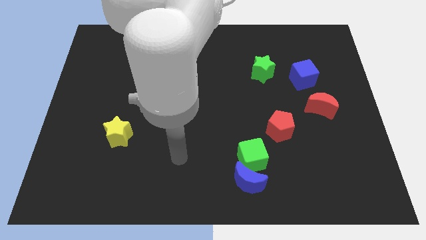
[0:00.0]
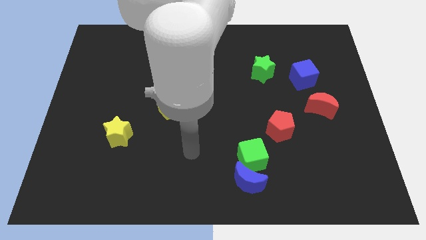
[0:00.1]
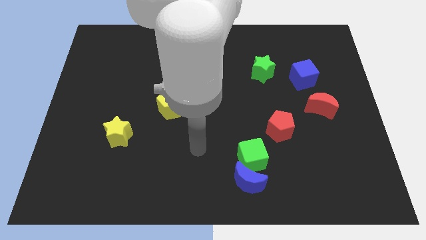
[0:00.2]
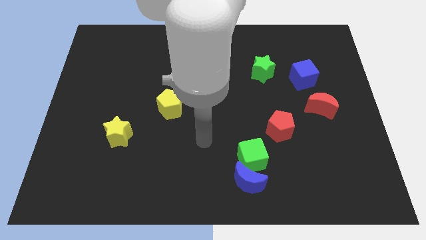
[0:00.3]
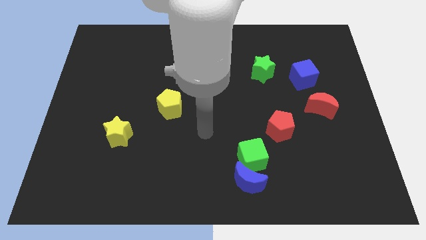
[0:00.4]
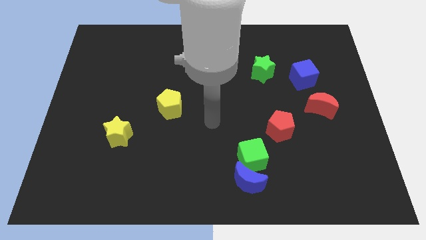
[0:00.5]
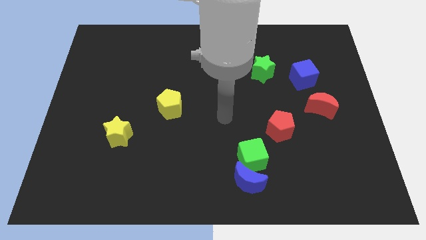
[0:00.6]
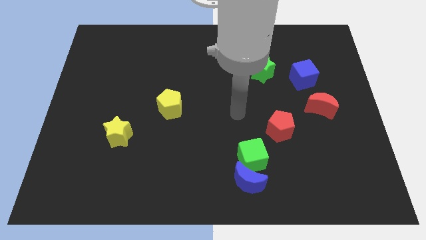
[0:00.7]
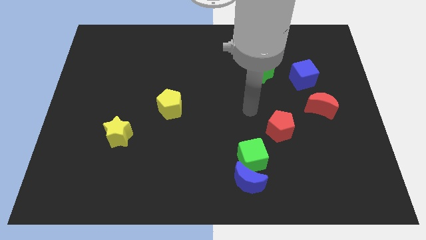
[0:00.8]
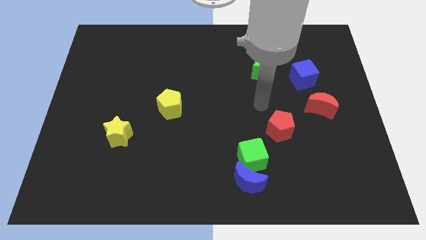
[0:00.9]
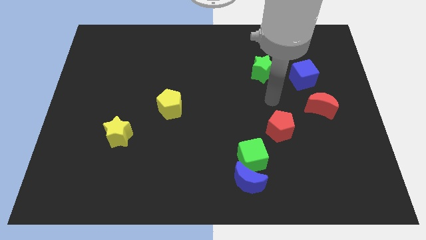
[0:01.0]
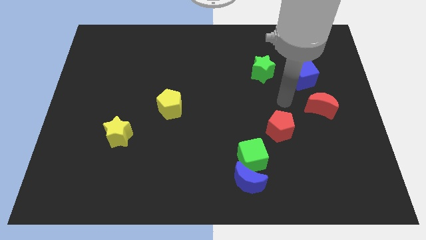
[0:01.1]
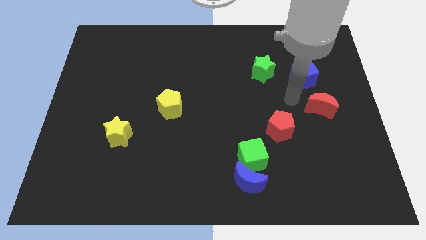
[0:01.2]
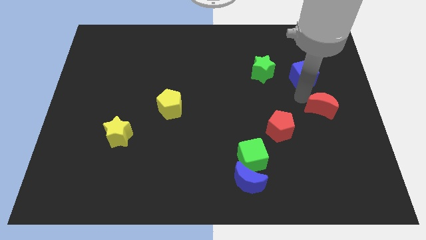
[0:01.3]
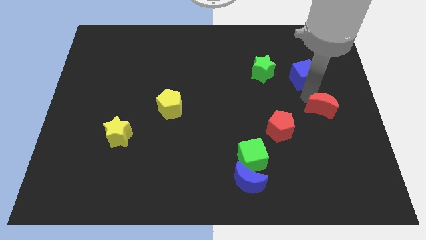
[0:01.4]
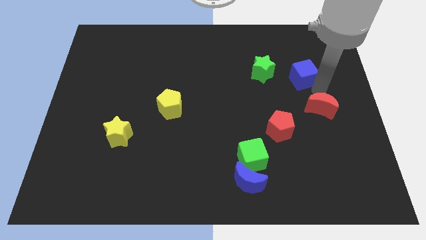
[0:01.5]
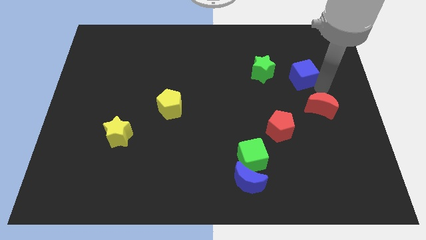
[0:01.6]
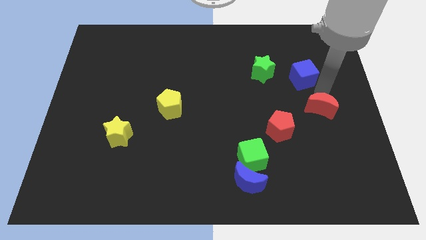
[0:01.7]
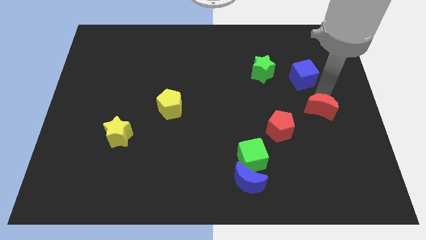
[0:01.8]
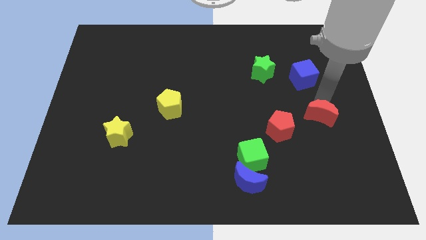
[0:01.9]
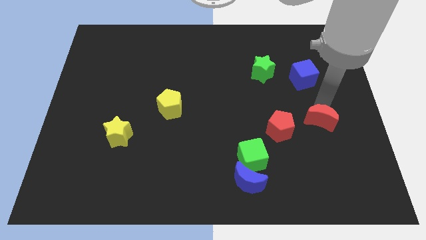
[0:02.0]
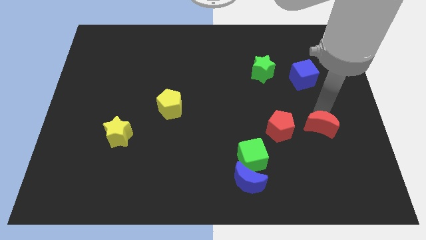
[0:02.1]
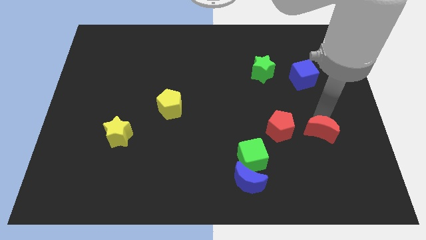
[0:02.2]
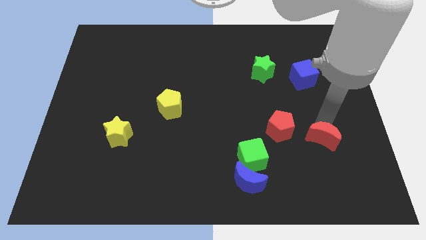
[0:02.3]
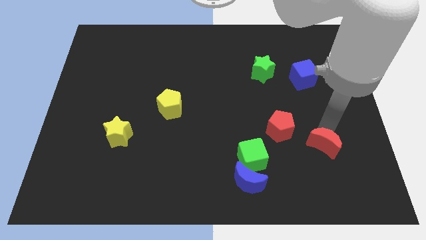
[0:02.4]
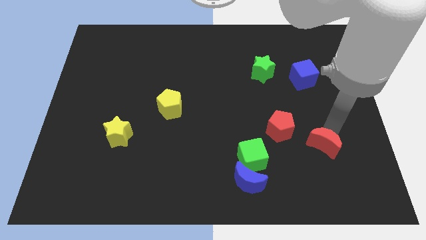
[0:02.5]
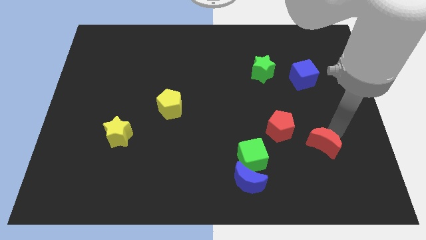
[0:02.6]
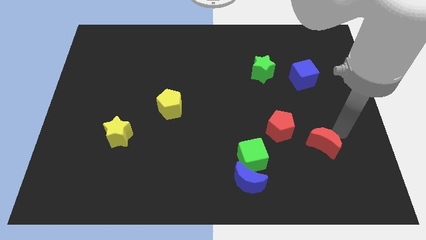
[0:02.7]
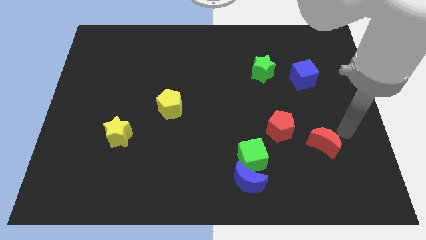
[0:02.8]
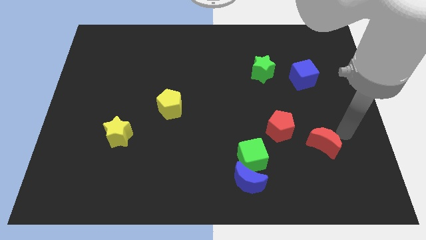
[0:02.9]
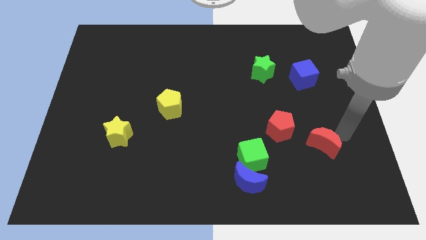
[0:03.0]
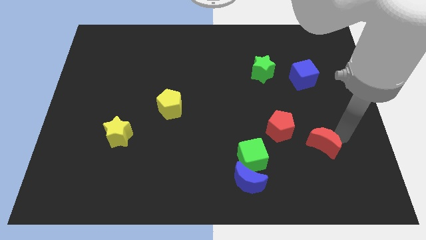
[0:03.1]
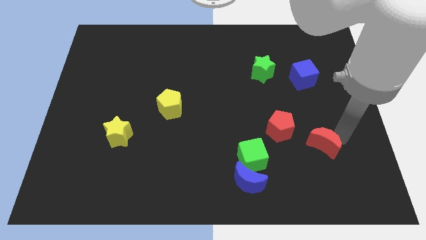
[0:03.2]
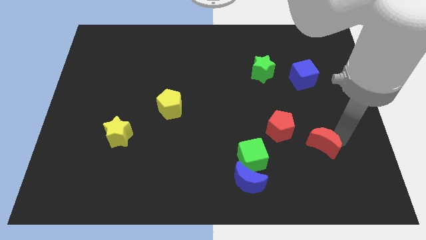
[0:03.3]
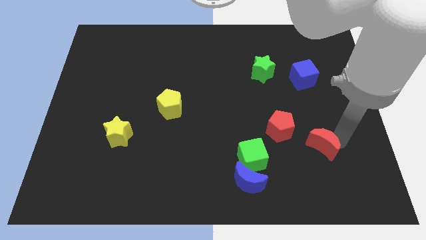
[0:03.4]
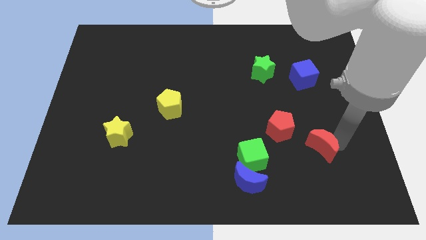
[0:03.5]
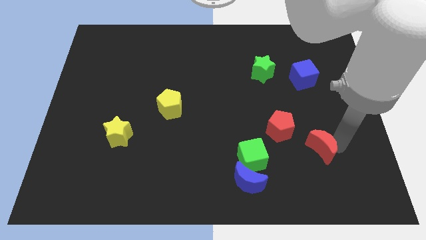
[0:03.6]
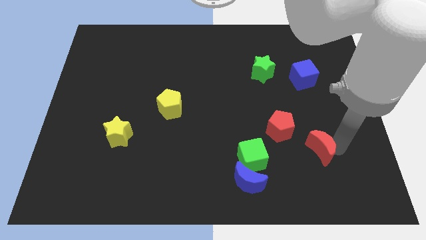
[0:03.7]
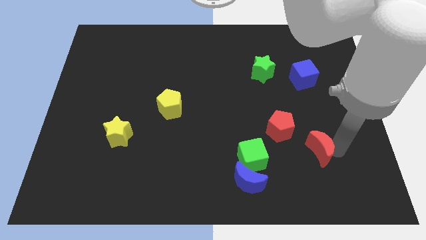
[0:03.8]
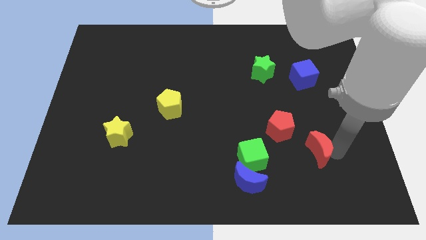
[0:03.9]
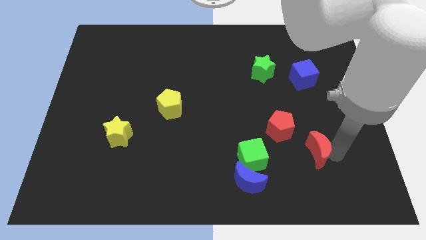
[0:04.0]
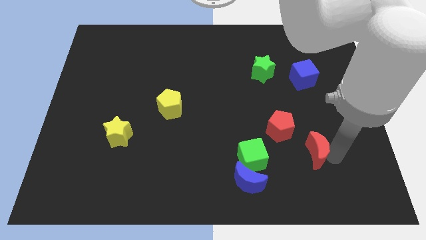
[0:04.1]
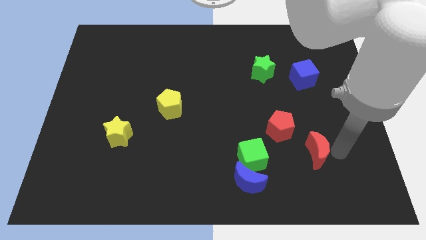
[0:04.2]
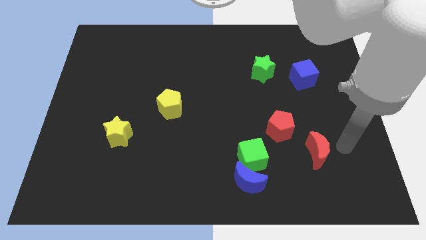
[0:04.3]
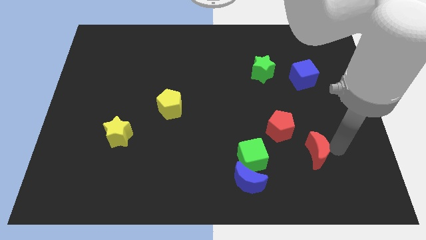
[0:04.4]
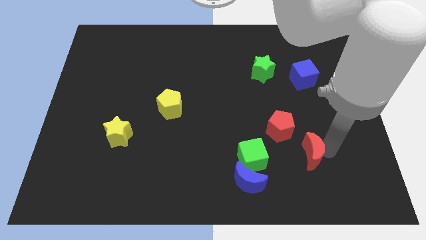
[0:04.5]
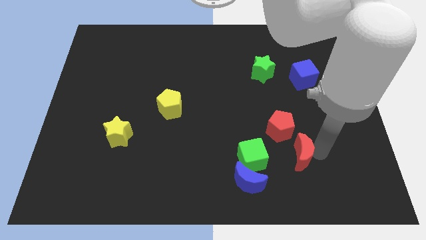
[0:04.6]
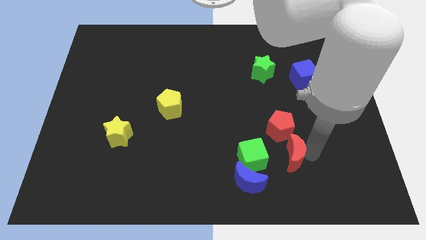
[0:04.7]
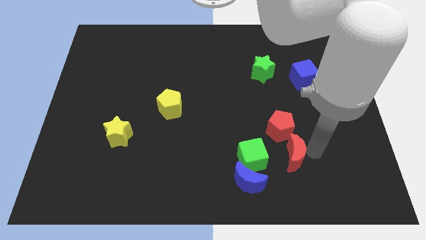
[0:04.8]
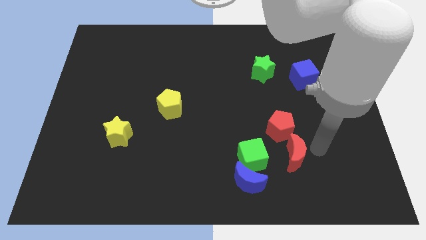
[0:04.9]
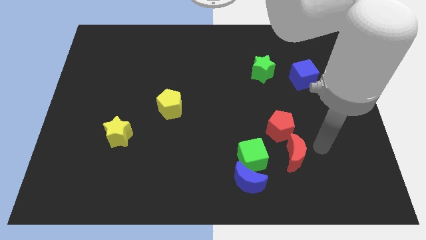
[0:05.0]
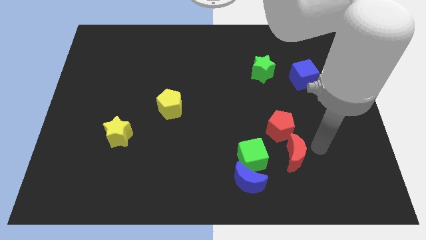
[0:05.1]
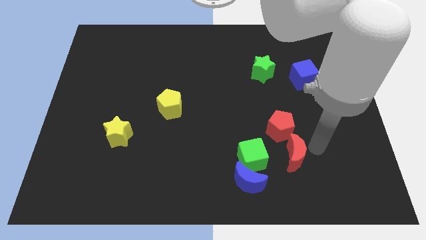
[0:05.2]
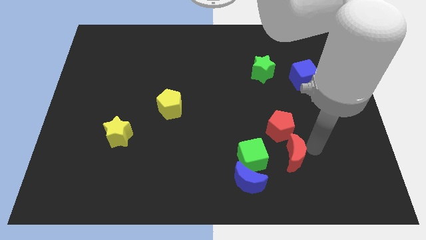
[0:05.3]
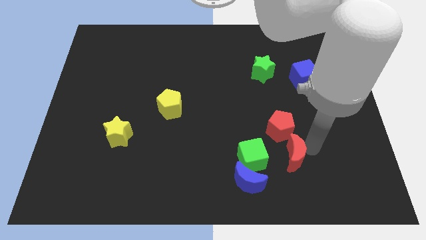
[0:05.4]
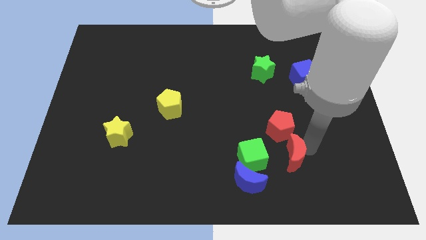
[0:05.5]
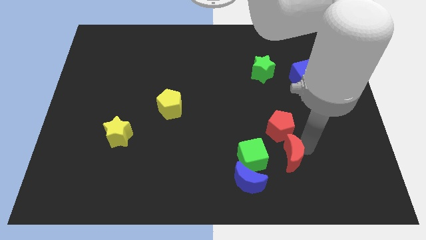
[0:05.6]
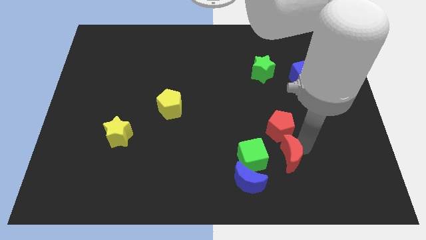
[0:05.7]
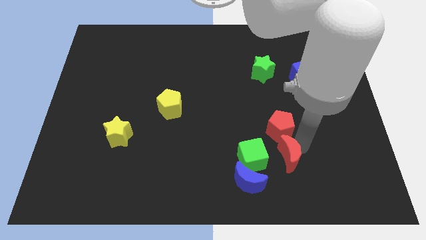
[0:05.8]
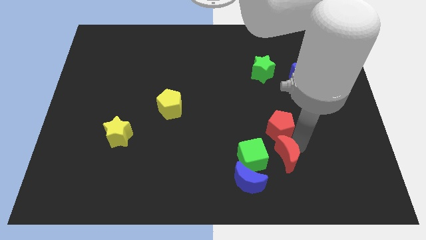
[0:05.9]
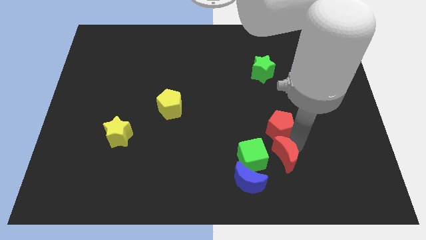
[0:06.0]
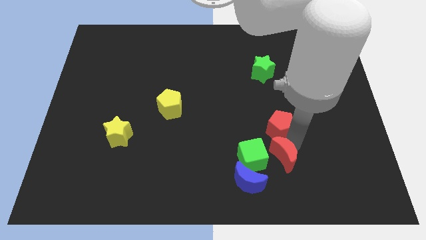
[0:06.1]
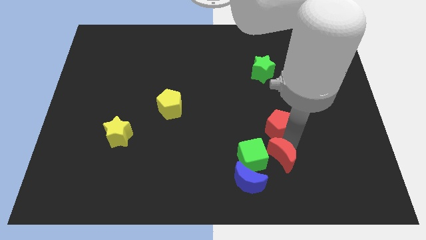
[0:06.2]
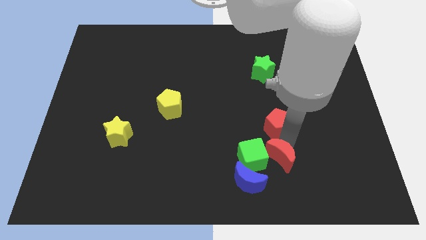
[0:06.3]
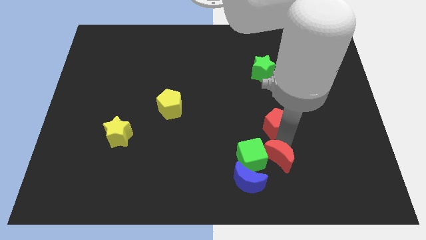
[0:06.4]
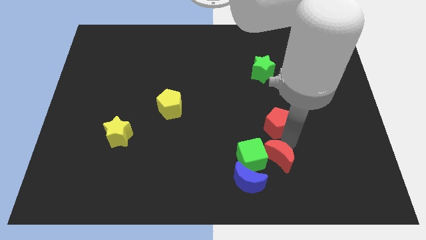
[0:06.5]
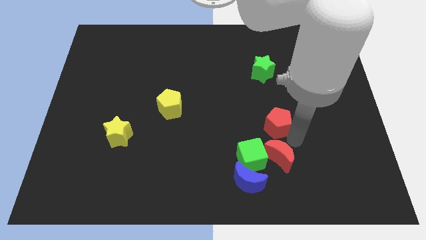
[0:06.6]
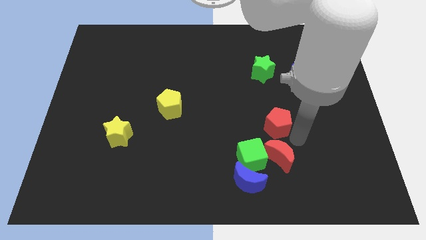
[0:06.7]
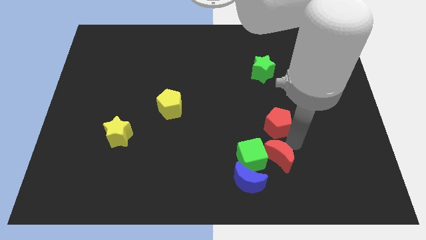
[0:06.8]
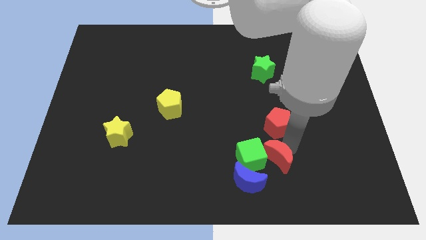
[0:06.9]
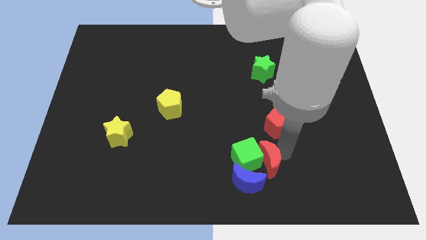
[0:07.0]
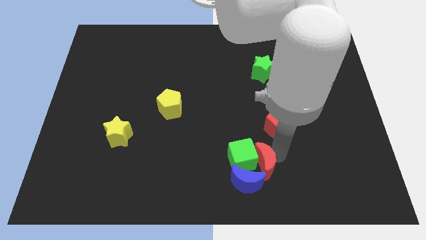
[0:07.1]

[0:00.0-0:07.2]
move the red moon close to the blue moon

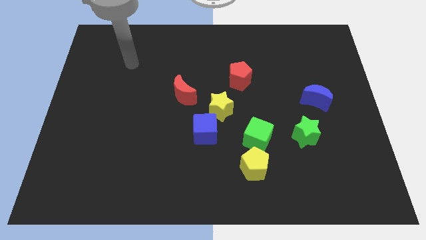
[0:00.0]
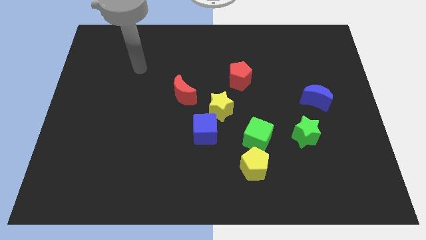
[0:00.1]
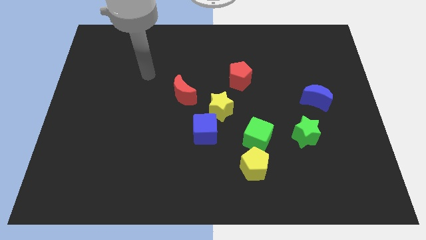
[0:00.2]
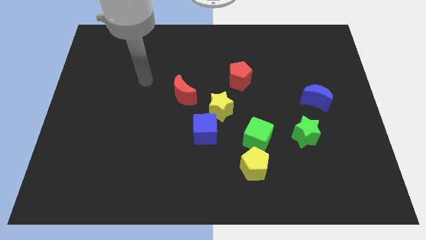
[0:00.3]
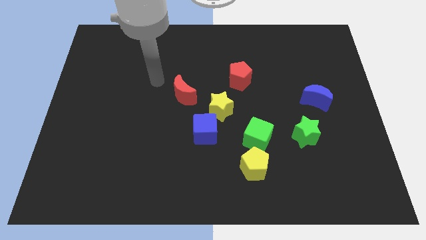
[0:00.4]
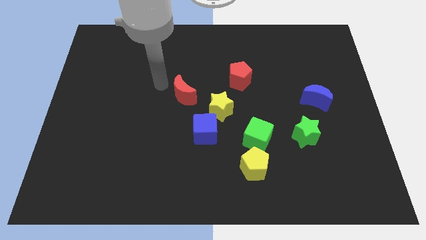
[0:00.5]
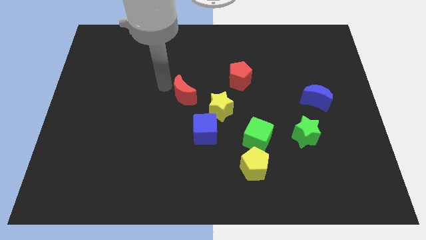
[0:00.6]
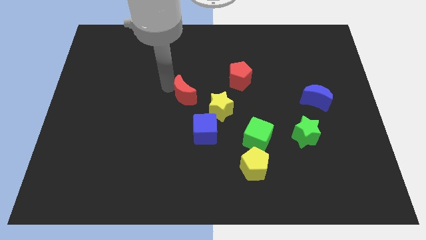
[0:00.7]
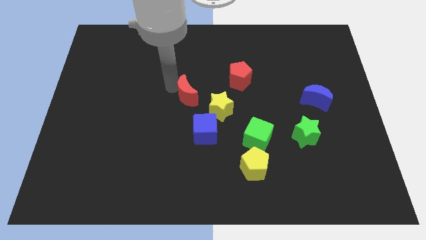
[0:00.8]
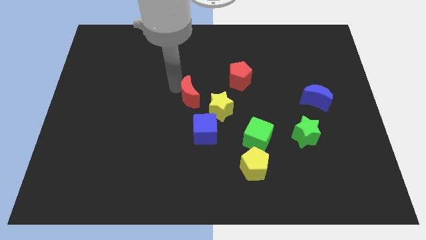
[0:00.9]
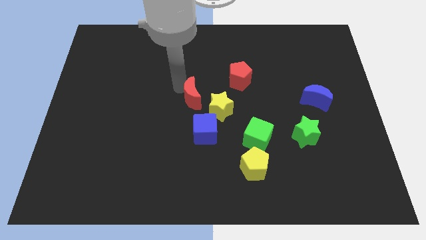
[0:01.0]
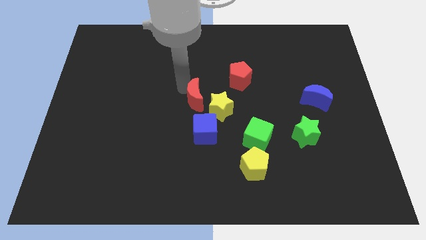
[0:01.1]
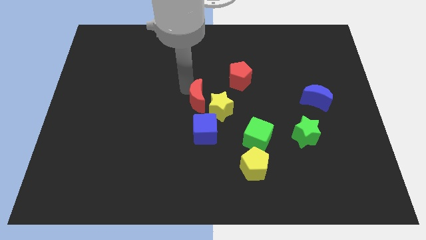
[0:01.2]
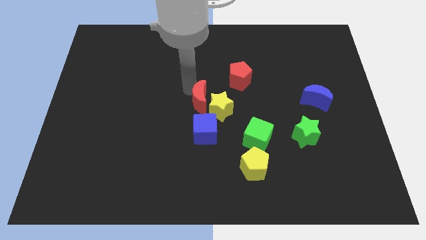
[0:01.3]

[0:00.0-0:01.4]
put the red moon towards the yellow star
